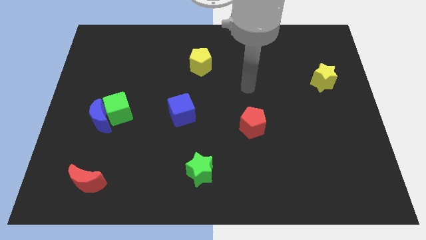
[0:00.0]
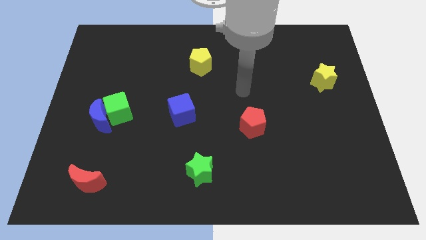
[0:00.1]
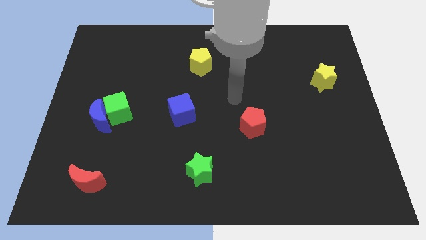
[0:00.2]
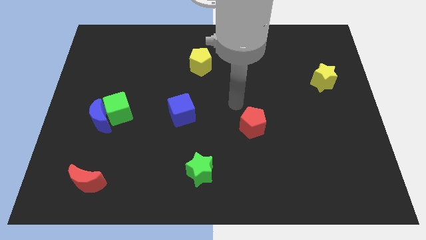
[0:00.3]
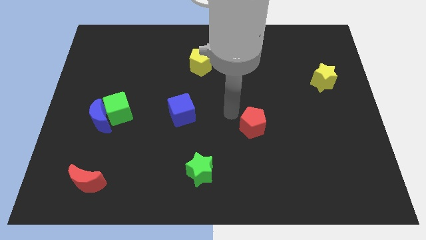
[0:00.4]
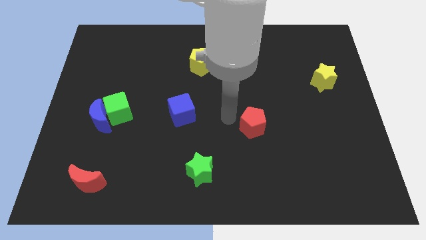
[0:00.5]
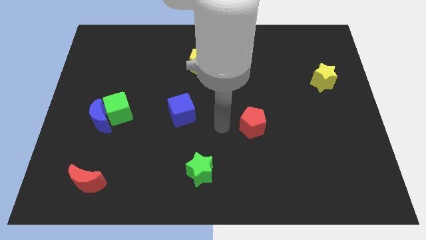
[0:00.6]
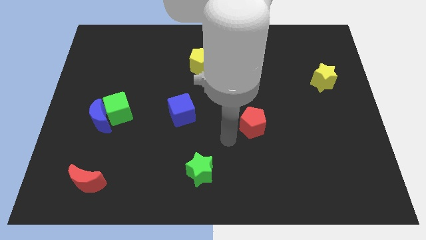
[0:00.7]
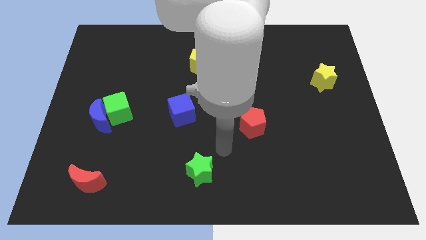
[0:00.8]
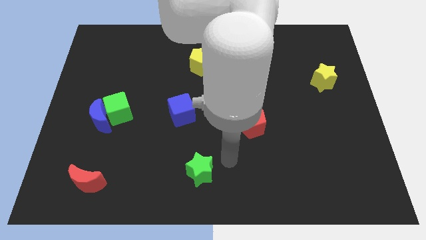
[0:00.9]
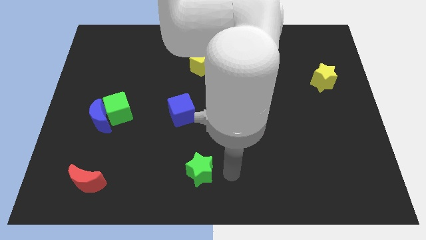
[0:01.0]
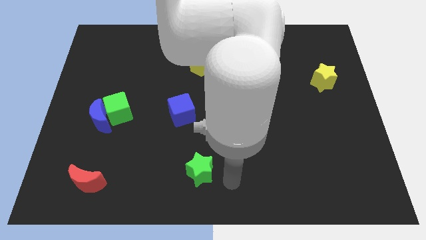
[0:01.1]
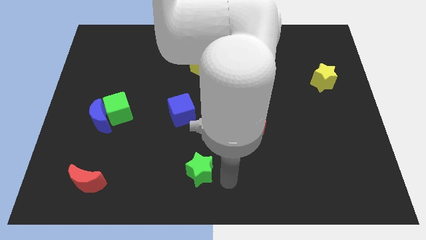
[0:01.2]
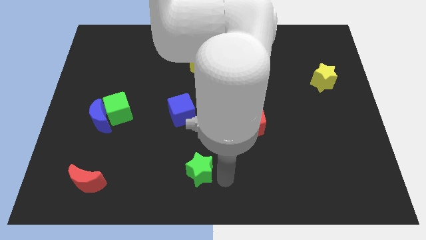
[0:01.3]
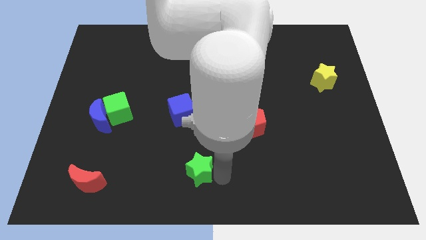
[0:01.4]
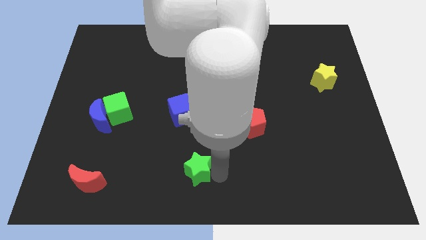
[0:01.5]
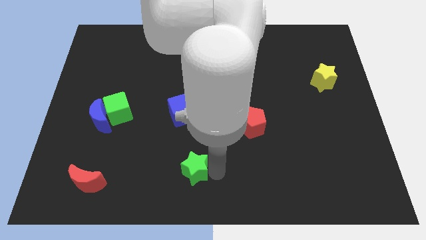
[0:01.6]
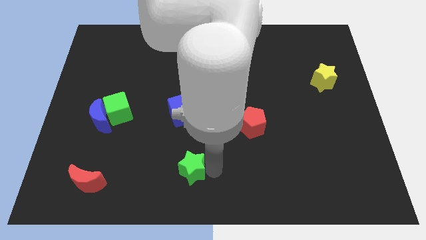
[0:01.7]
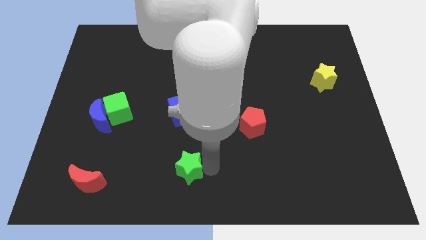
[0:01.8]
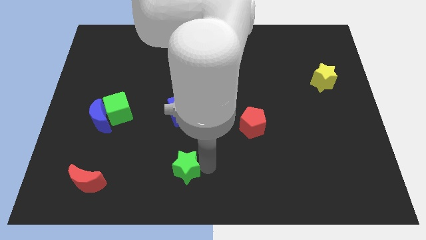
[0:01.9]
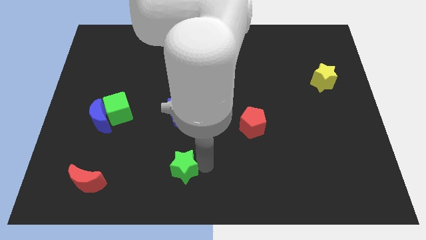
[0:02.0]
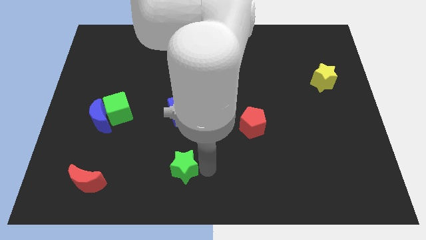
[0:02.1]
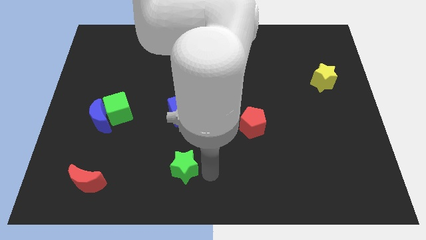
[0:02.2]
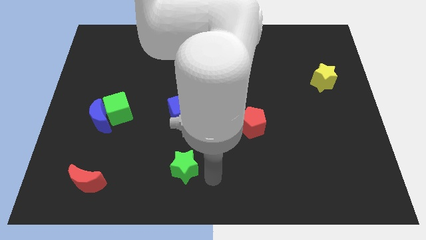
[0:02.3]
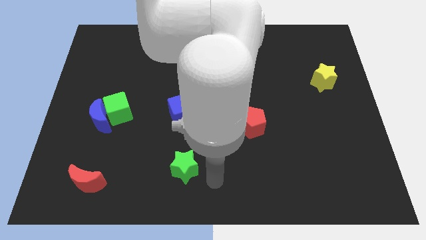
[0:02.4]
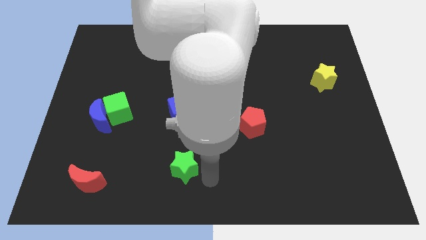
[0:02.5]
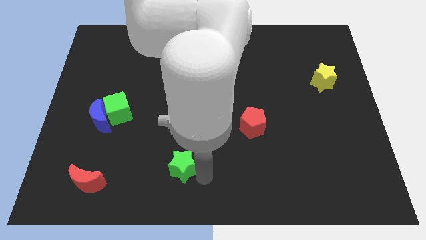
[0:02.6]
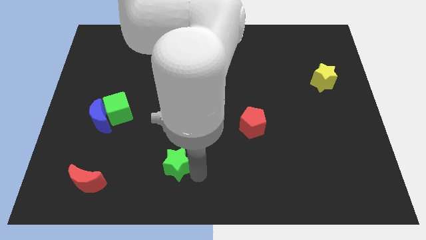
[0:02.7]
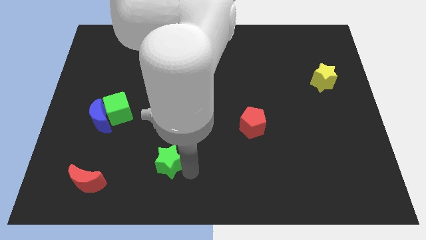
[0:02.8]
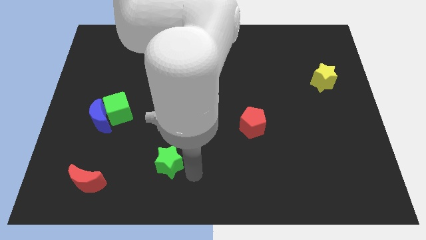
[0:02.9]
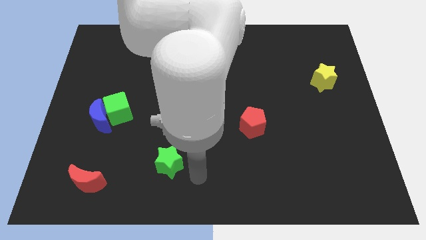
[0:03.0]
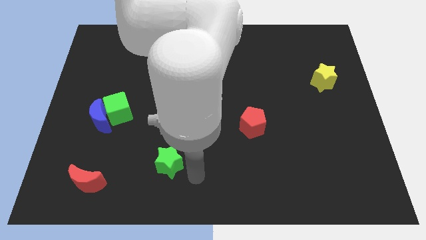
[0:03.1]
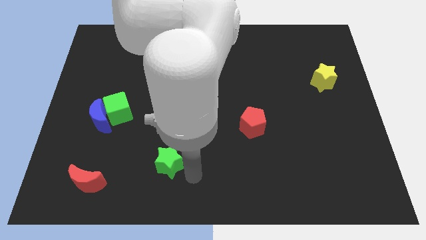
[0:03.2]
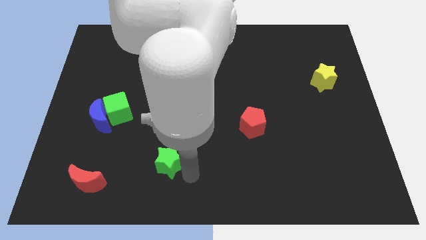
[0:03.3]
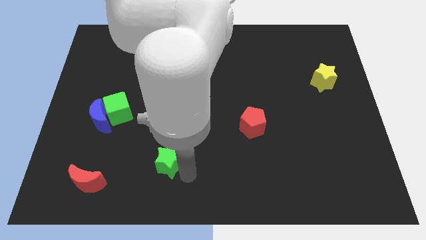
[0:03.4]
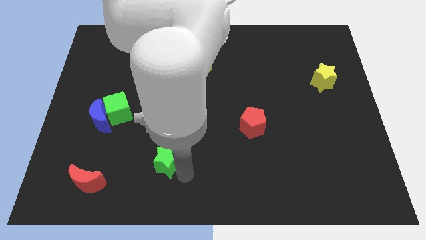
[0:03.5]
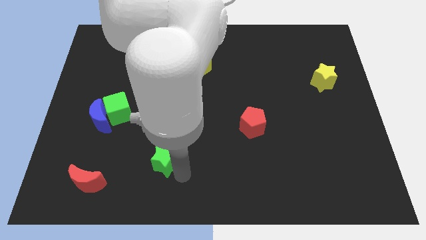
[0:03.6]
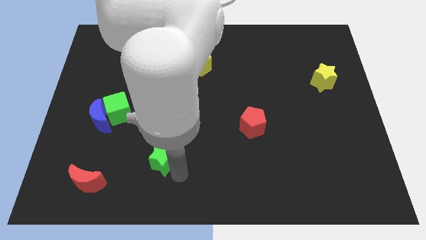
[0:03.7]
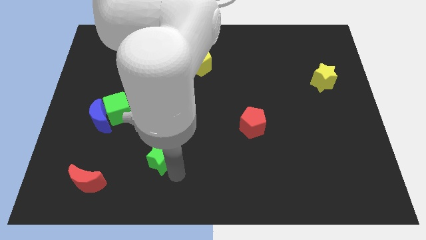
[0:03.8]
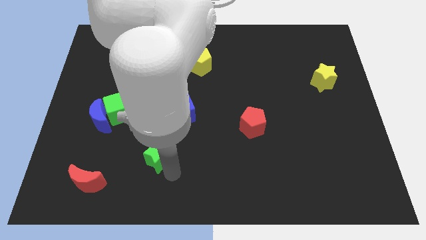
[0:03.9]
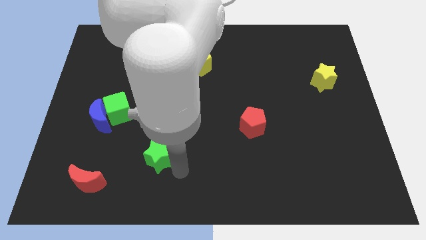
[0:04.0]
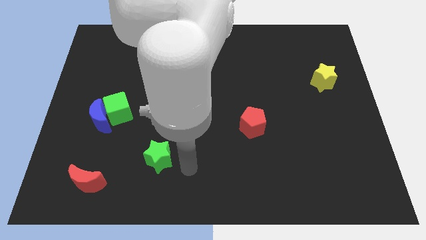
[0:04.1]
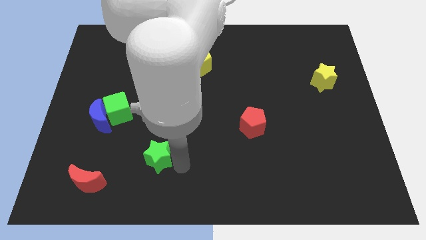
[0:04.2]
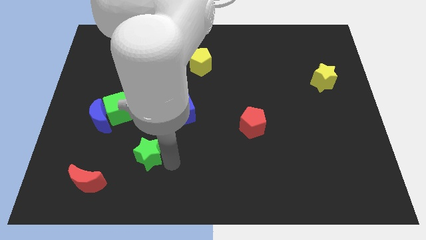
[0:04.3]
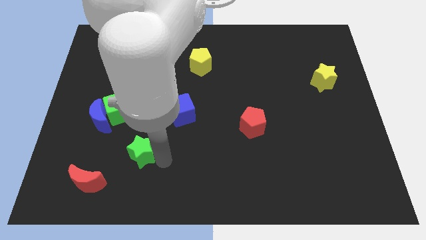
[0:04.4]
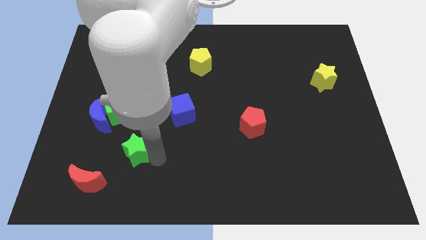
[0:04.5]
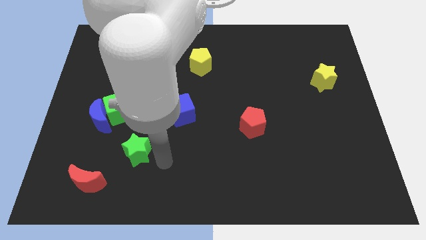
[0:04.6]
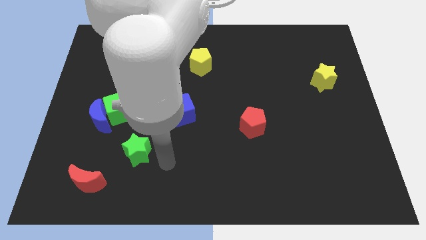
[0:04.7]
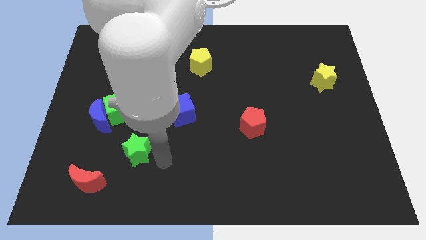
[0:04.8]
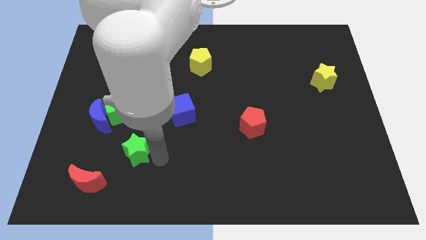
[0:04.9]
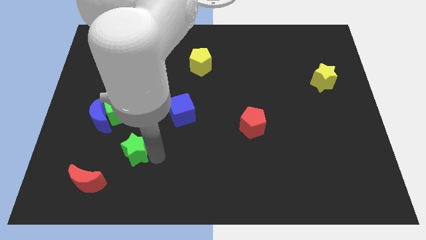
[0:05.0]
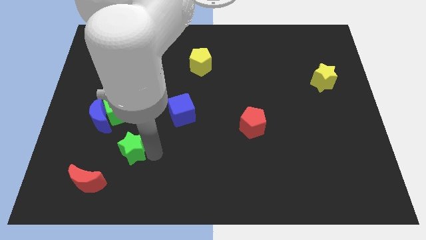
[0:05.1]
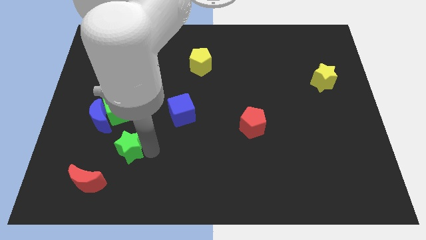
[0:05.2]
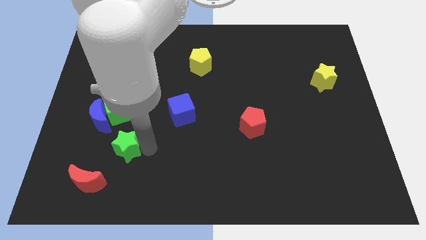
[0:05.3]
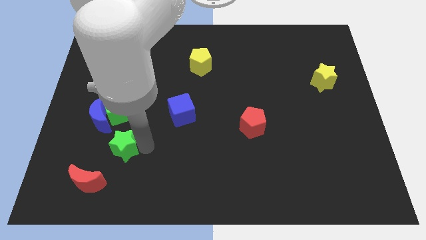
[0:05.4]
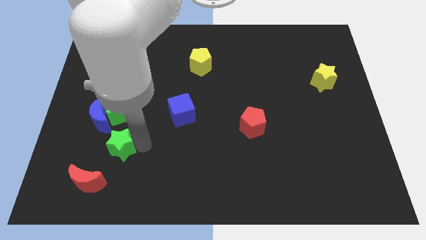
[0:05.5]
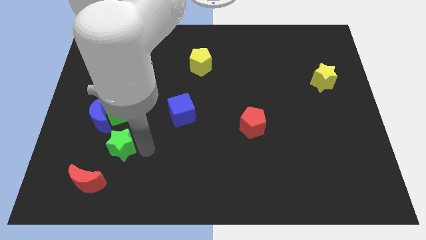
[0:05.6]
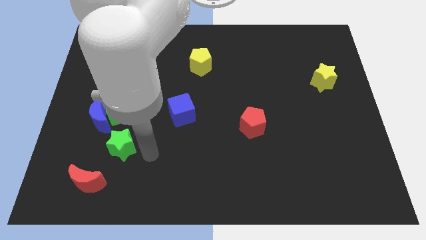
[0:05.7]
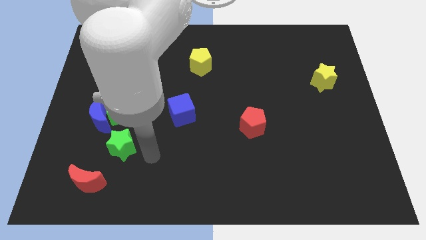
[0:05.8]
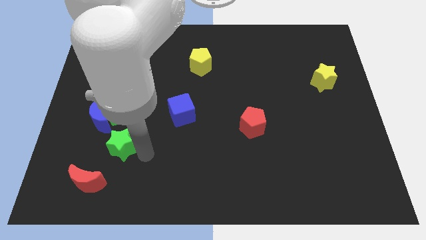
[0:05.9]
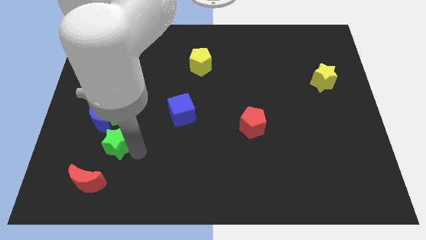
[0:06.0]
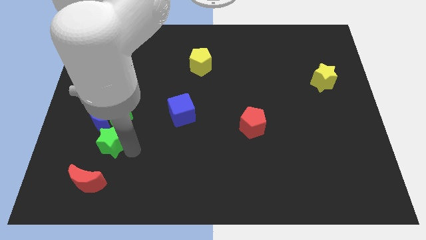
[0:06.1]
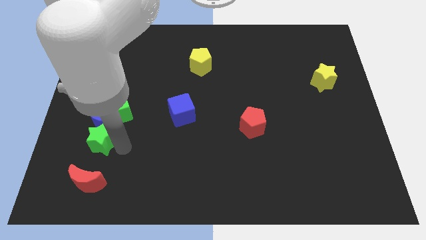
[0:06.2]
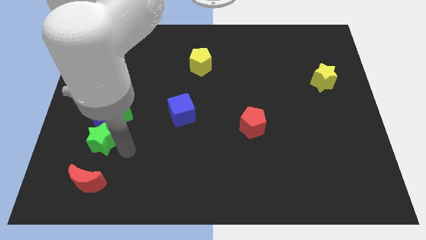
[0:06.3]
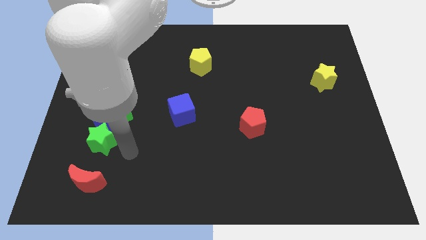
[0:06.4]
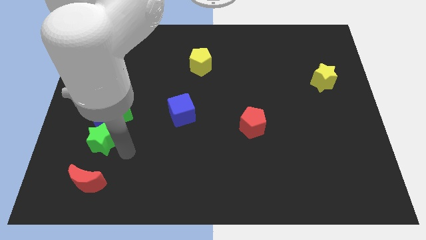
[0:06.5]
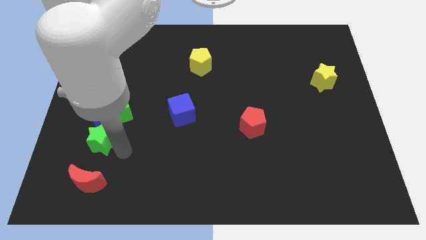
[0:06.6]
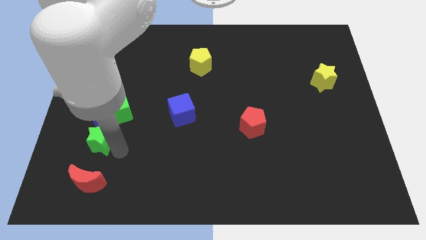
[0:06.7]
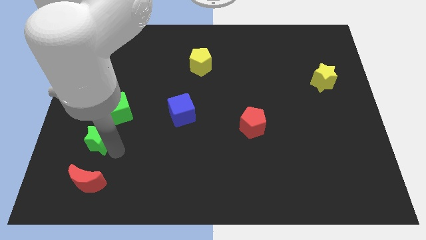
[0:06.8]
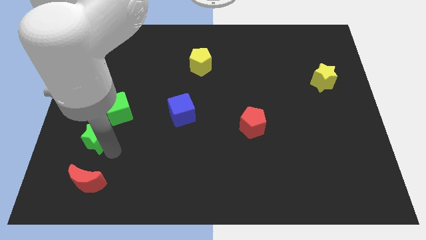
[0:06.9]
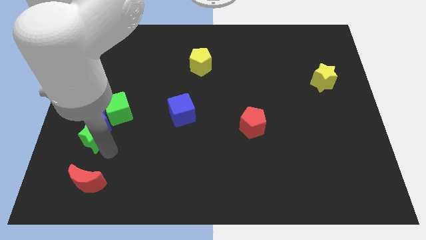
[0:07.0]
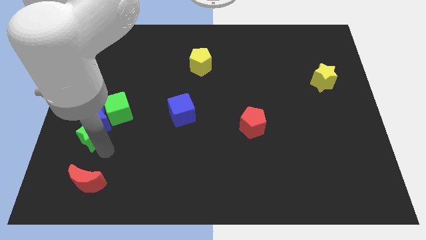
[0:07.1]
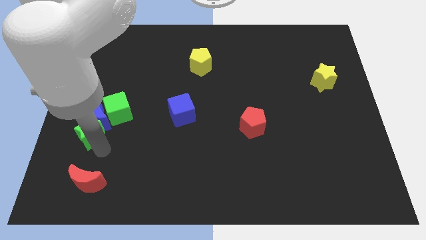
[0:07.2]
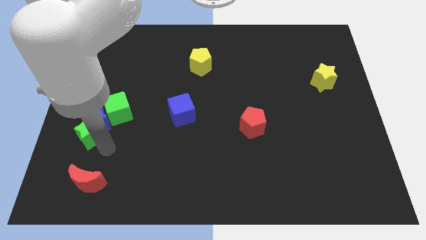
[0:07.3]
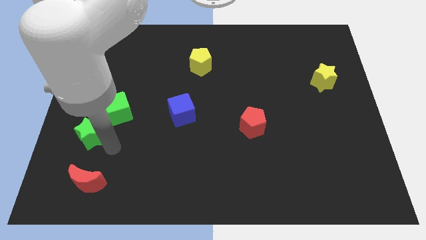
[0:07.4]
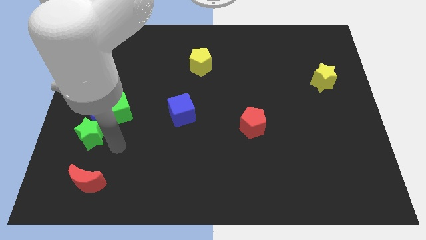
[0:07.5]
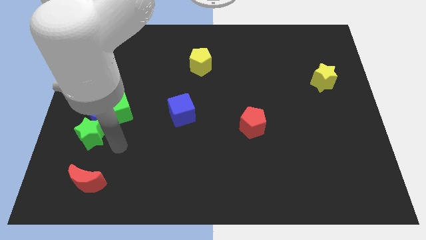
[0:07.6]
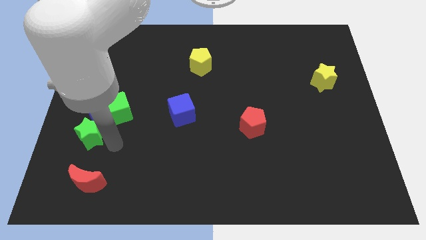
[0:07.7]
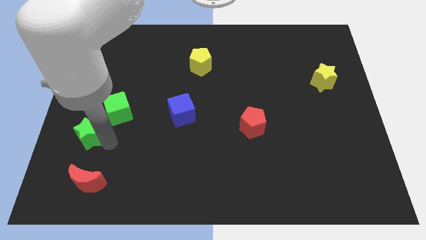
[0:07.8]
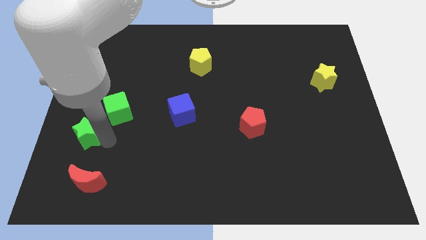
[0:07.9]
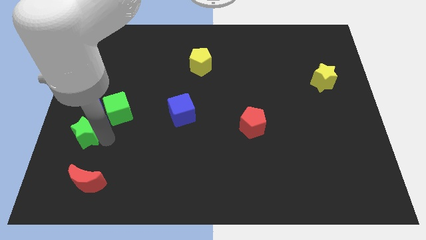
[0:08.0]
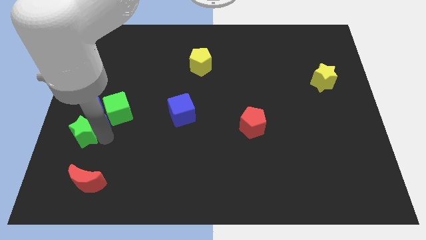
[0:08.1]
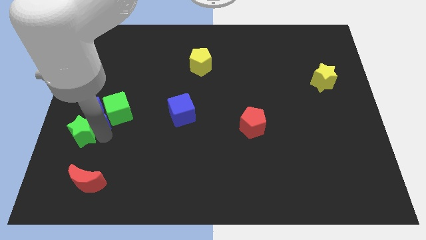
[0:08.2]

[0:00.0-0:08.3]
put the green star to the left side
